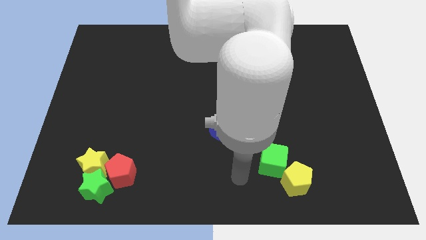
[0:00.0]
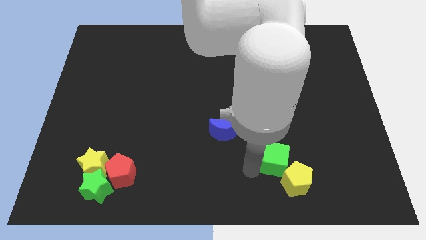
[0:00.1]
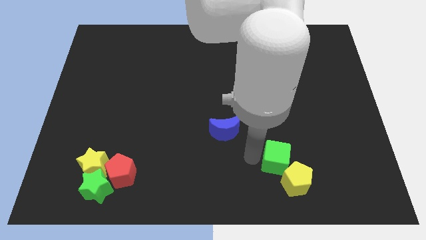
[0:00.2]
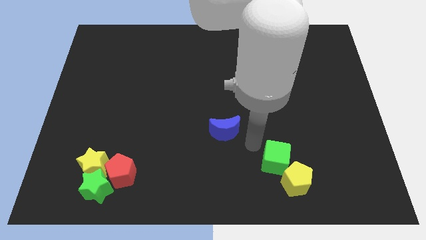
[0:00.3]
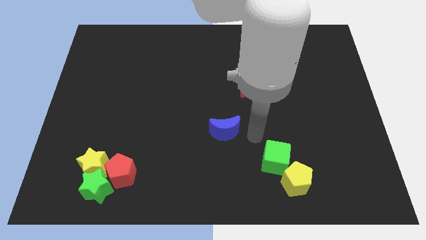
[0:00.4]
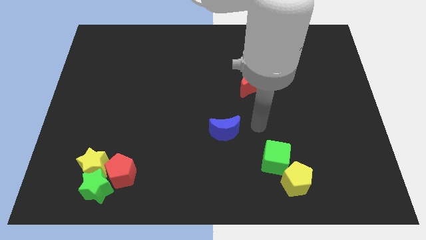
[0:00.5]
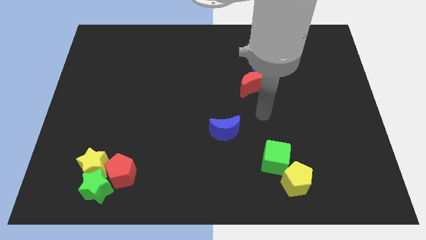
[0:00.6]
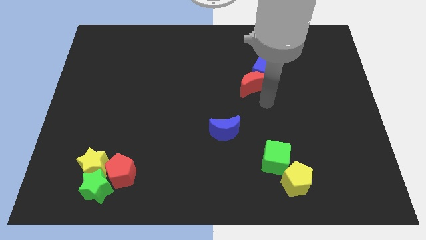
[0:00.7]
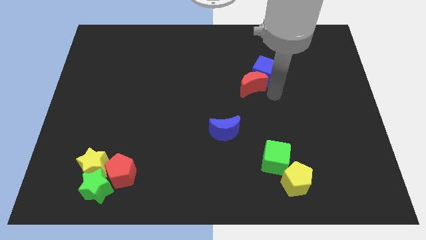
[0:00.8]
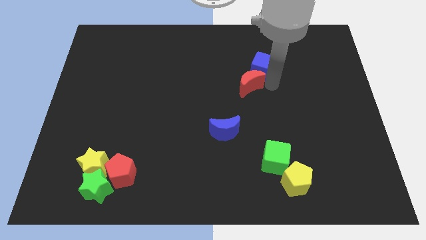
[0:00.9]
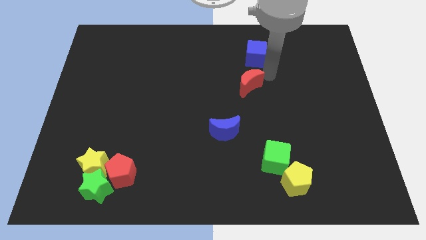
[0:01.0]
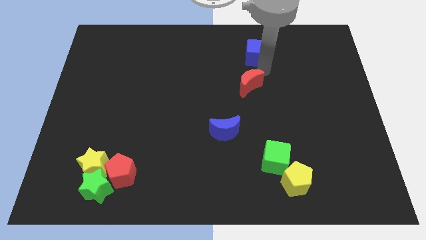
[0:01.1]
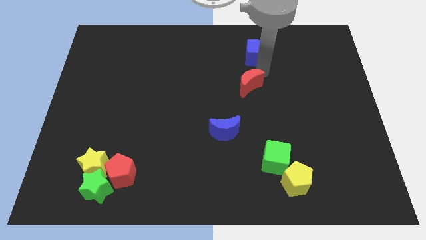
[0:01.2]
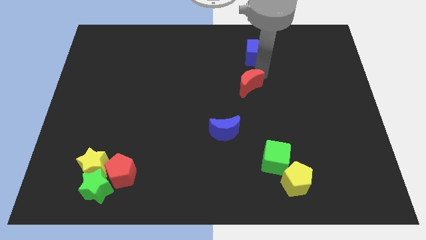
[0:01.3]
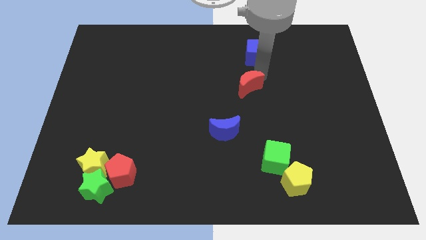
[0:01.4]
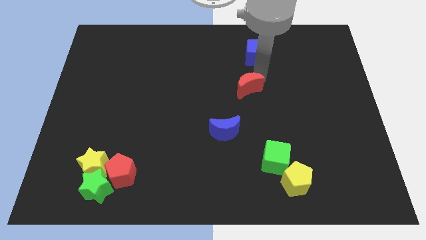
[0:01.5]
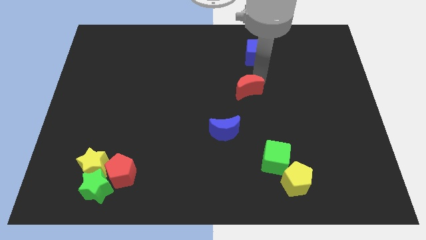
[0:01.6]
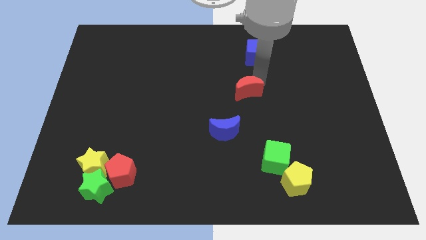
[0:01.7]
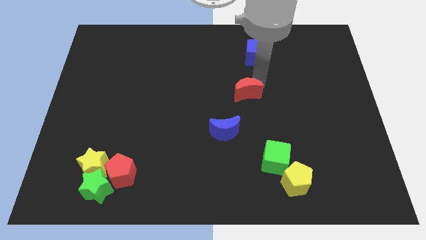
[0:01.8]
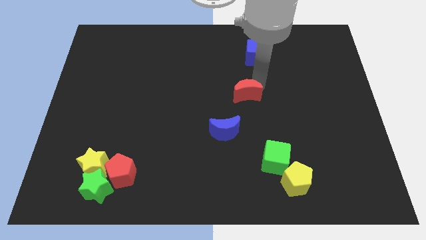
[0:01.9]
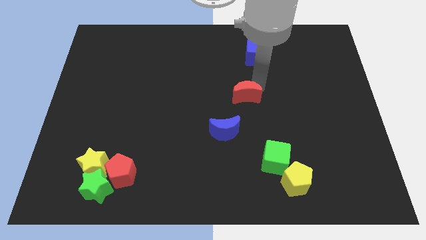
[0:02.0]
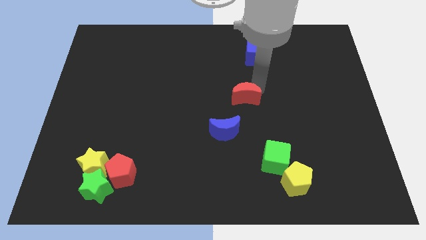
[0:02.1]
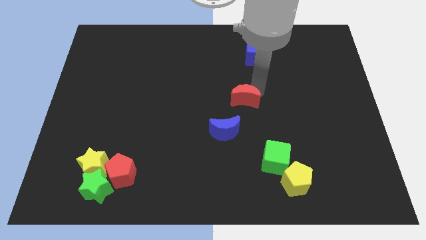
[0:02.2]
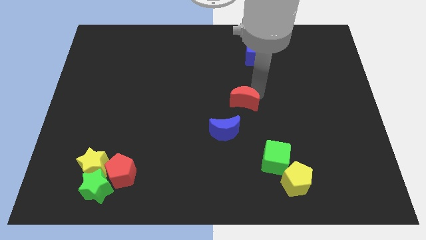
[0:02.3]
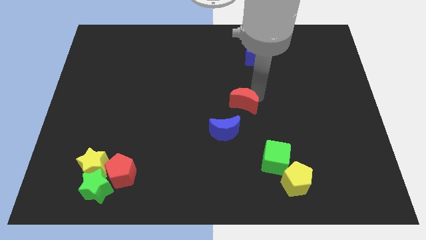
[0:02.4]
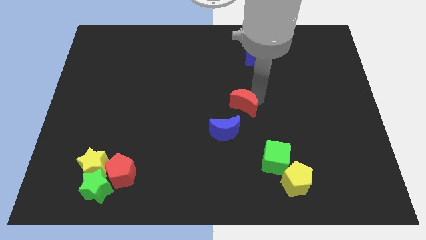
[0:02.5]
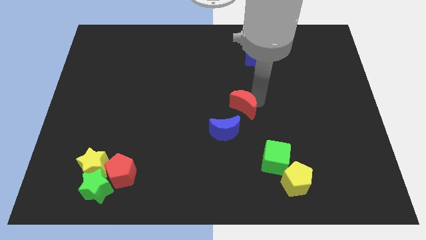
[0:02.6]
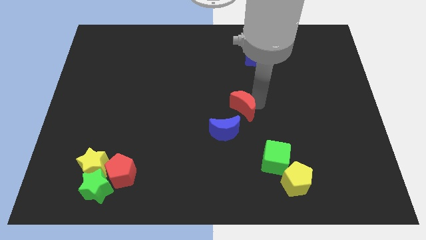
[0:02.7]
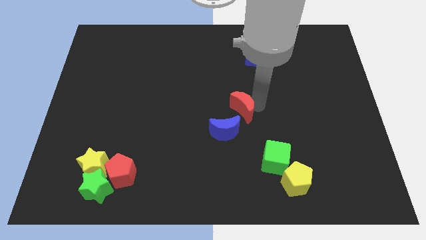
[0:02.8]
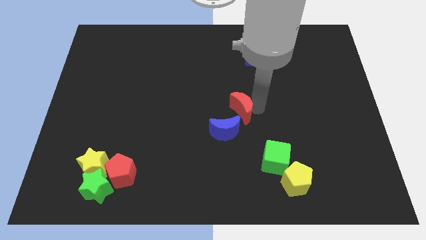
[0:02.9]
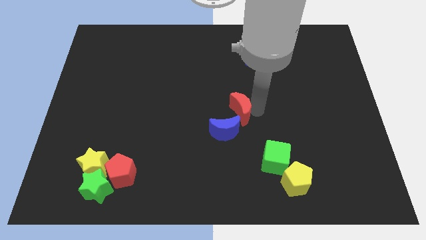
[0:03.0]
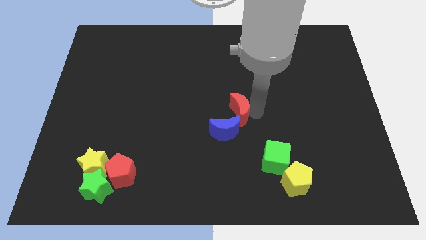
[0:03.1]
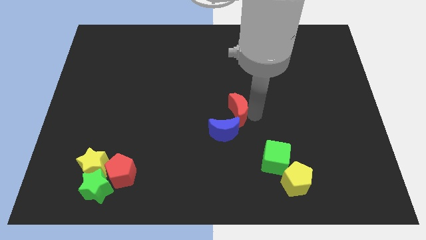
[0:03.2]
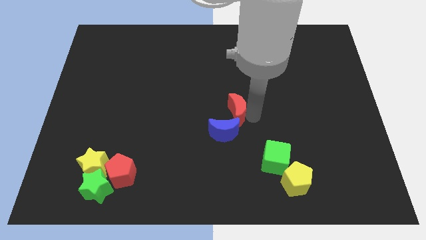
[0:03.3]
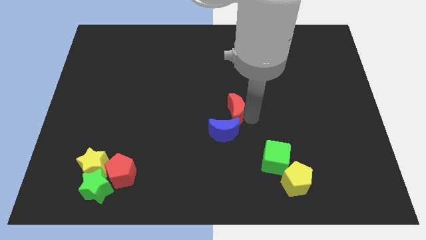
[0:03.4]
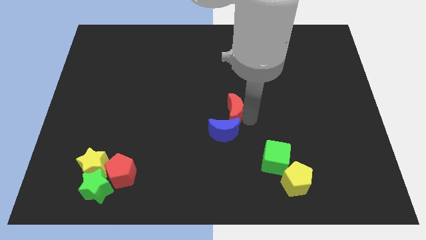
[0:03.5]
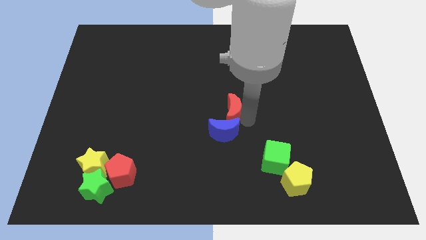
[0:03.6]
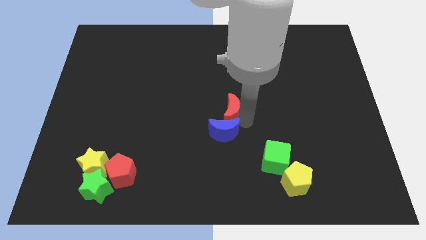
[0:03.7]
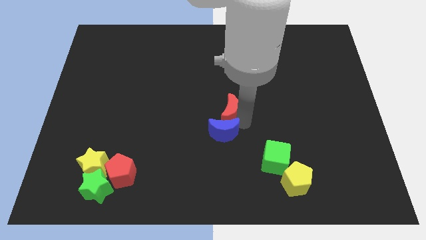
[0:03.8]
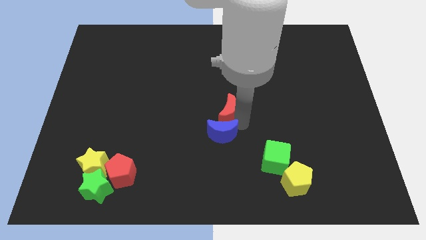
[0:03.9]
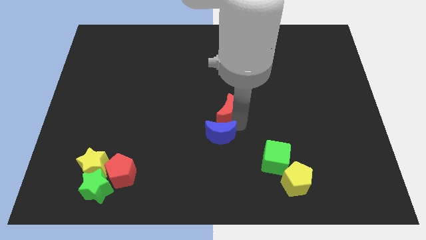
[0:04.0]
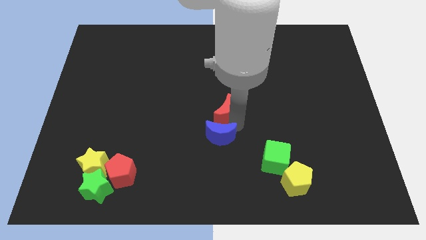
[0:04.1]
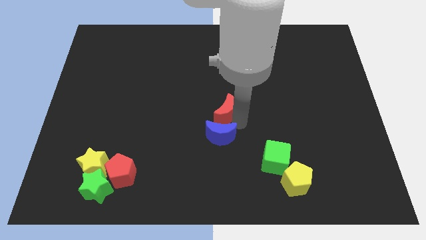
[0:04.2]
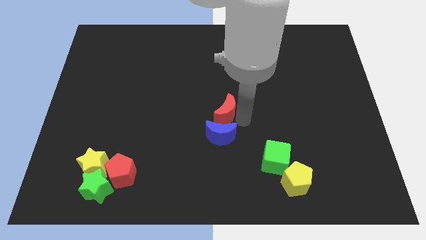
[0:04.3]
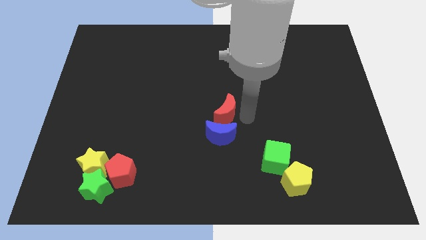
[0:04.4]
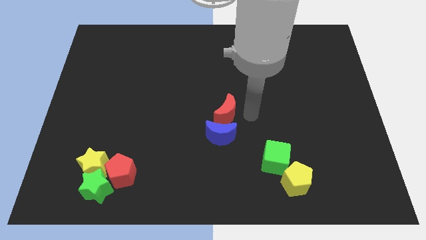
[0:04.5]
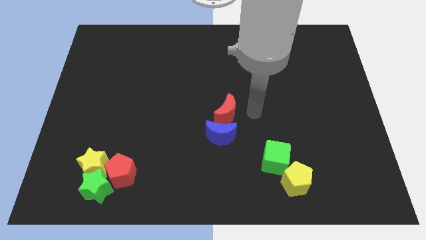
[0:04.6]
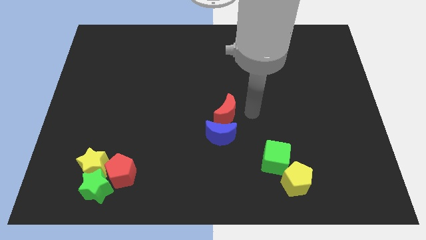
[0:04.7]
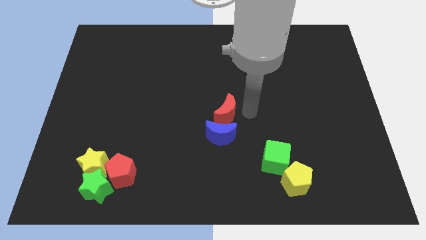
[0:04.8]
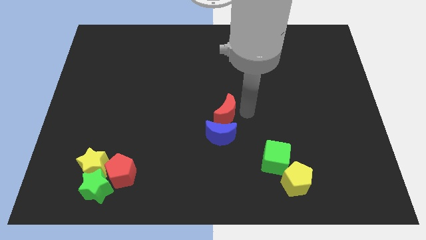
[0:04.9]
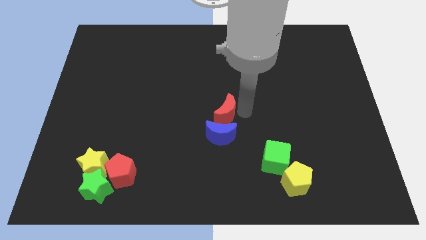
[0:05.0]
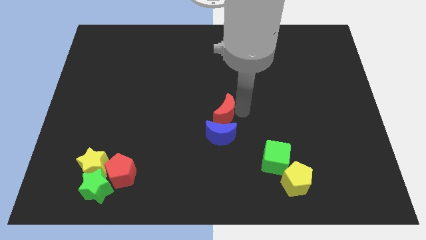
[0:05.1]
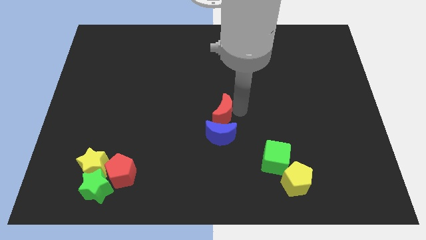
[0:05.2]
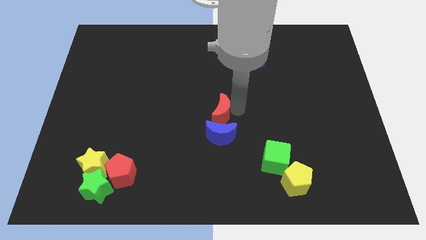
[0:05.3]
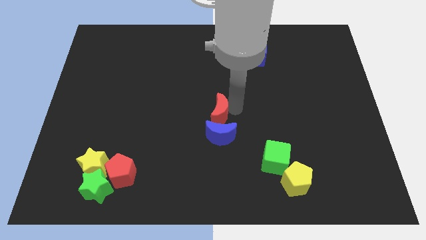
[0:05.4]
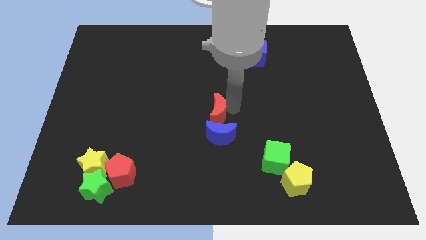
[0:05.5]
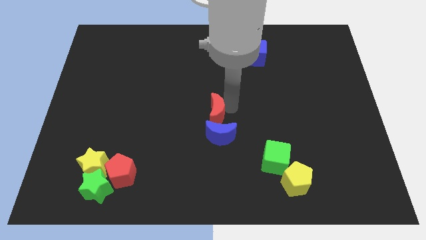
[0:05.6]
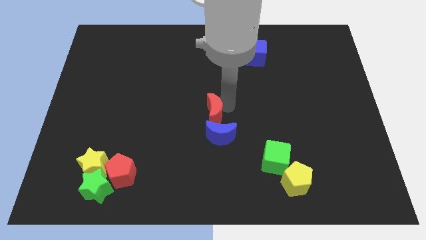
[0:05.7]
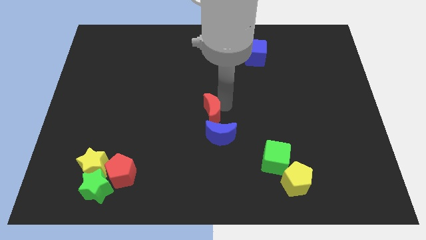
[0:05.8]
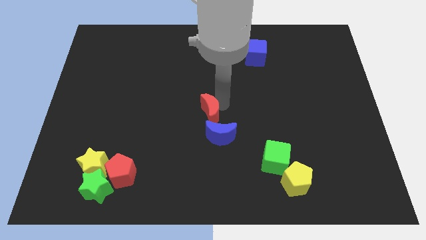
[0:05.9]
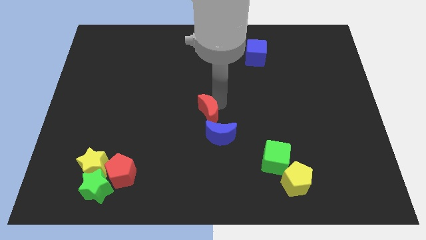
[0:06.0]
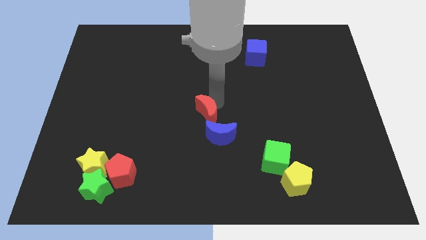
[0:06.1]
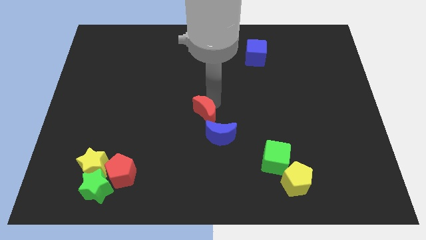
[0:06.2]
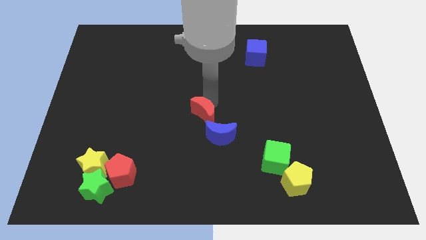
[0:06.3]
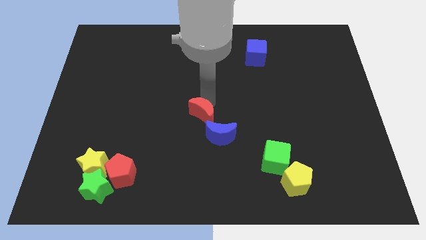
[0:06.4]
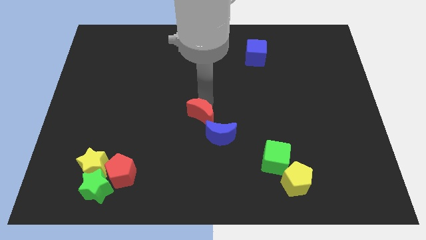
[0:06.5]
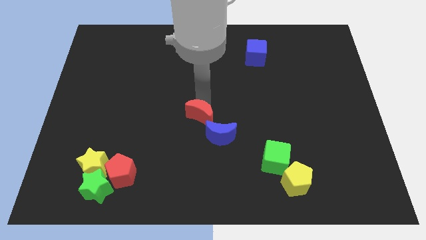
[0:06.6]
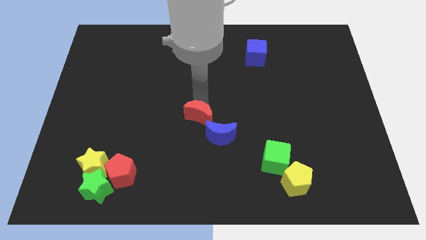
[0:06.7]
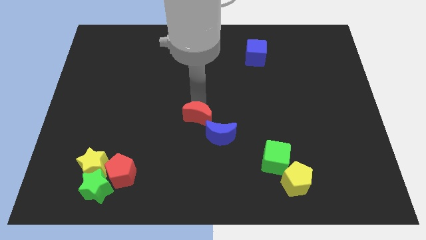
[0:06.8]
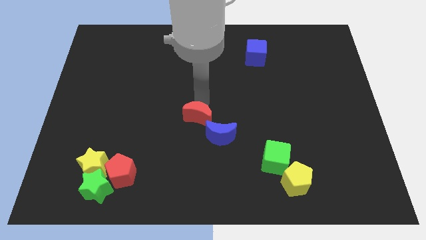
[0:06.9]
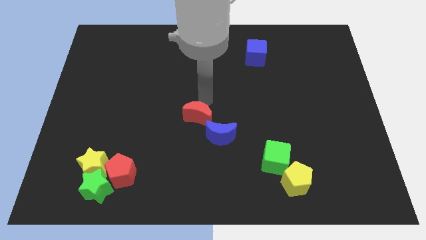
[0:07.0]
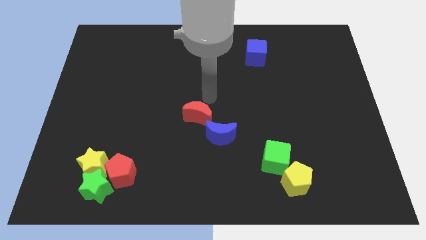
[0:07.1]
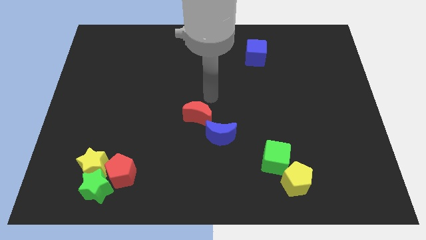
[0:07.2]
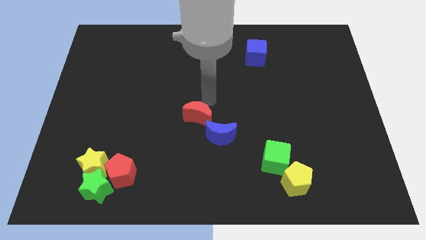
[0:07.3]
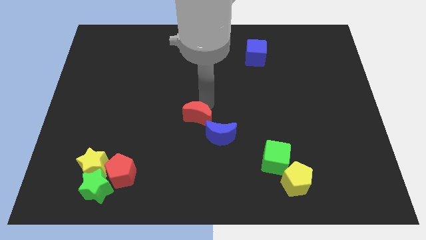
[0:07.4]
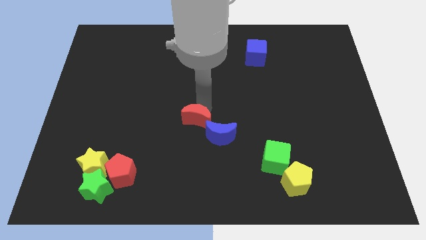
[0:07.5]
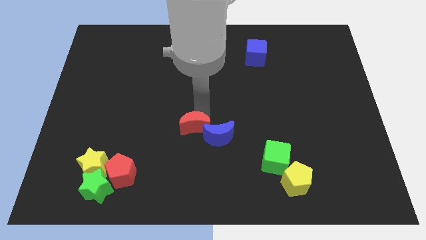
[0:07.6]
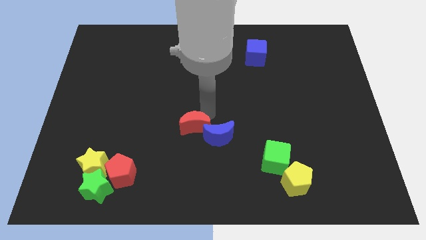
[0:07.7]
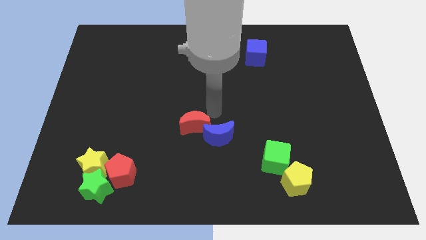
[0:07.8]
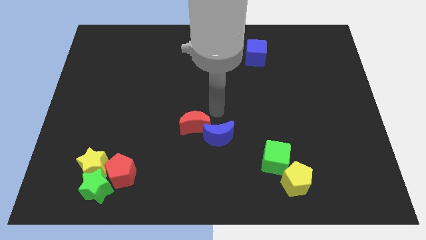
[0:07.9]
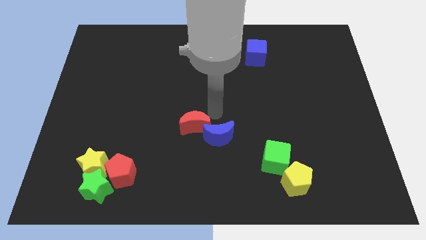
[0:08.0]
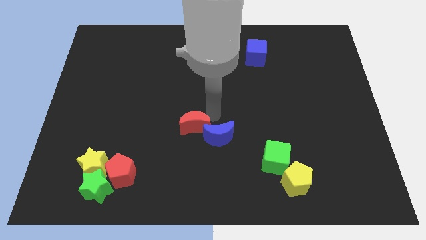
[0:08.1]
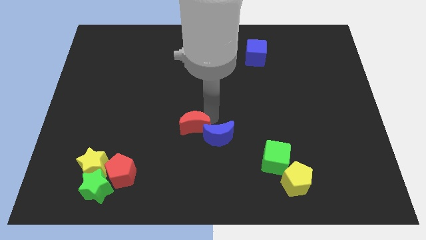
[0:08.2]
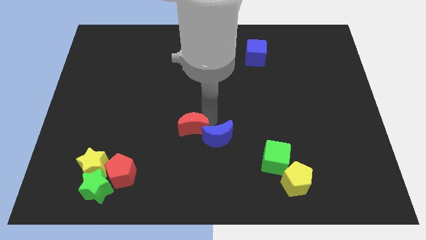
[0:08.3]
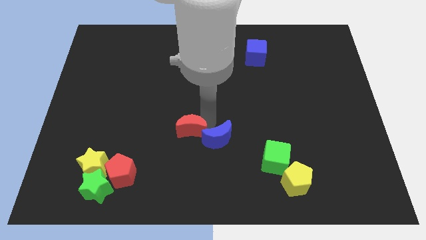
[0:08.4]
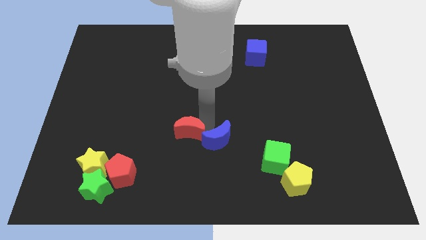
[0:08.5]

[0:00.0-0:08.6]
push the red moon downwards and to the left
